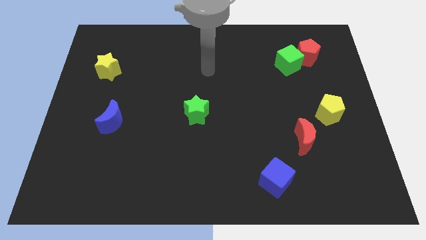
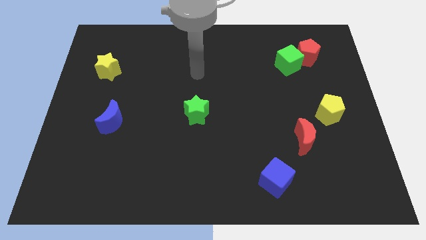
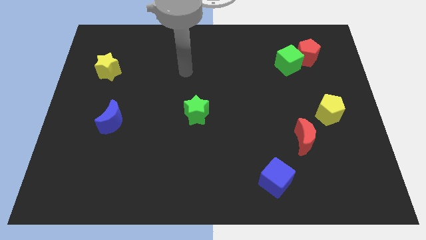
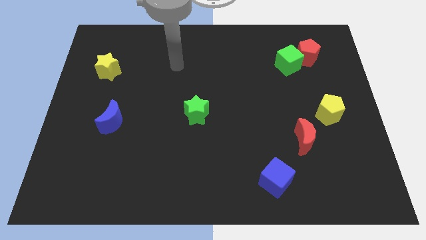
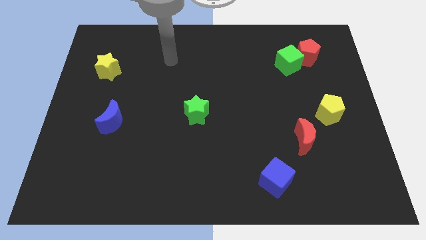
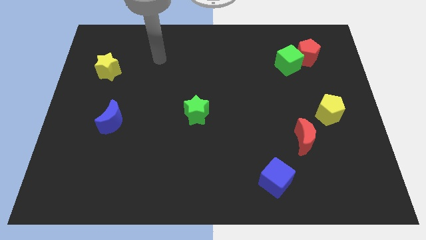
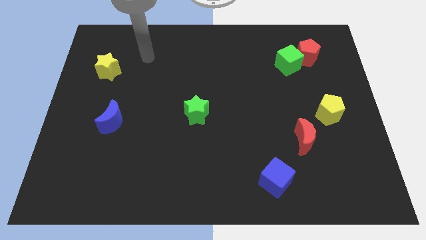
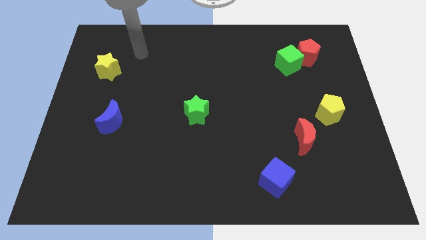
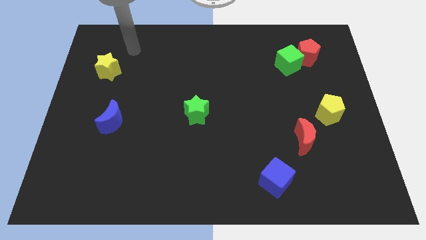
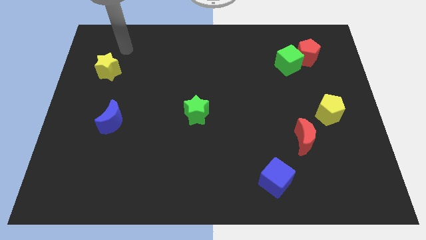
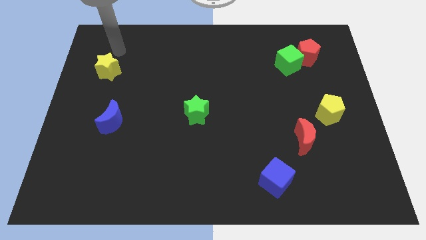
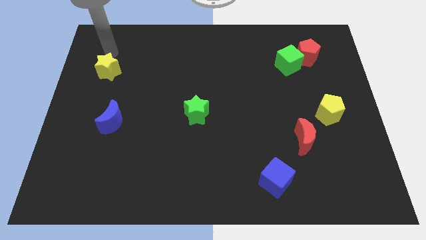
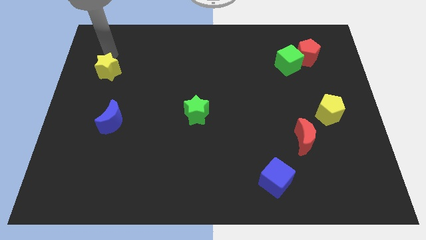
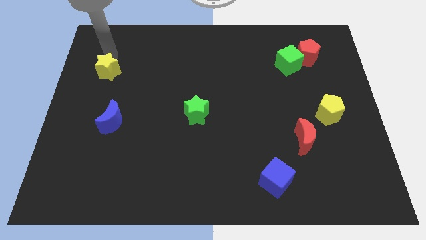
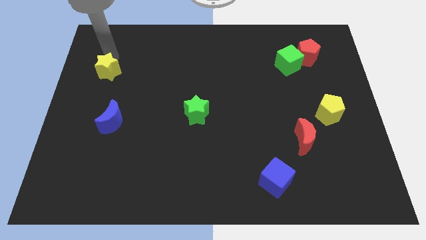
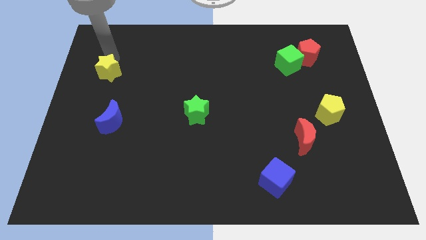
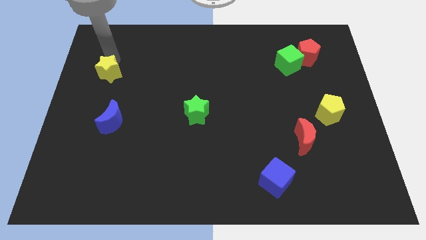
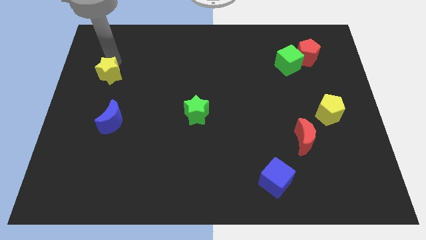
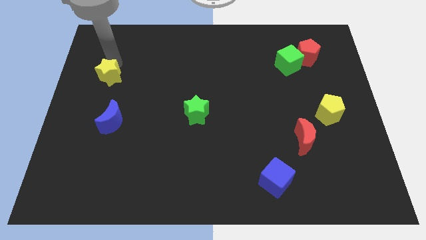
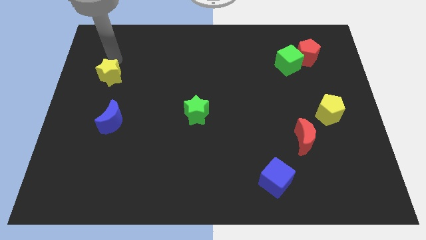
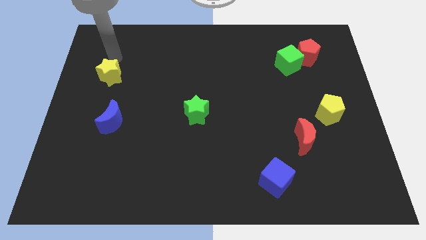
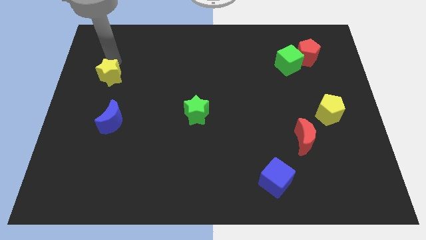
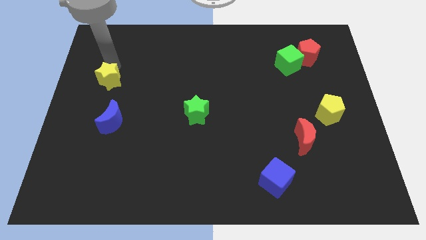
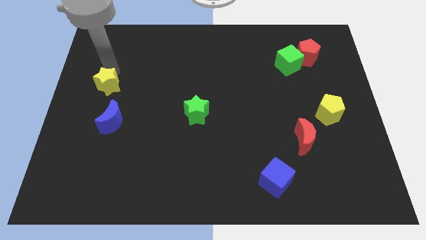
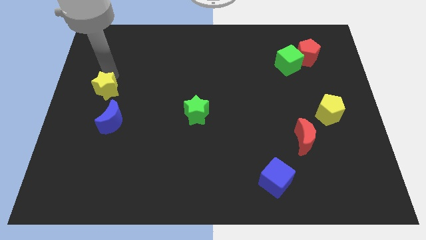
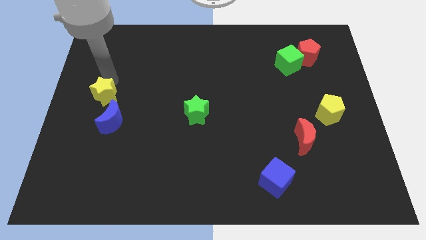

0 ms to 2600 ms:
move the yellow star downwards somewhat

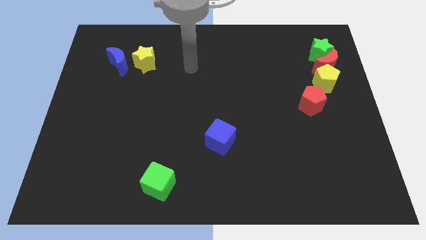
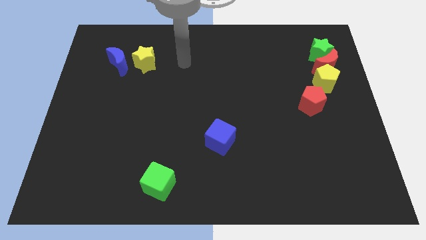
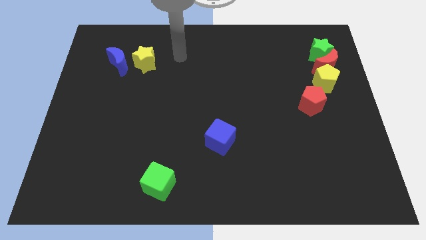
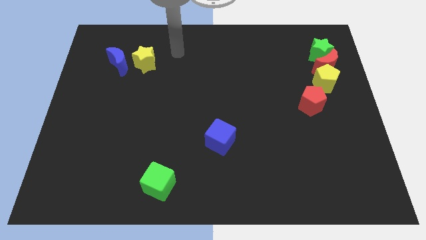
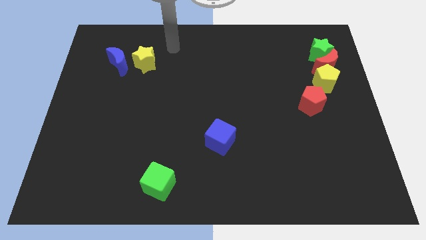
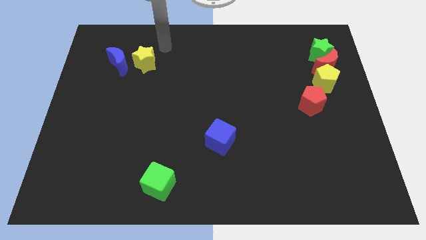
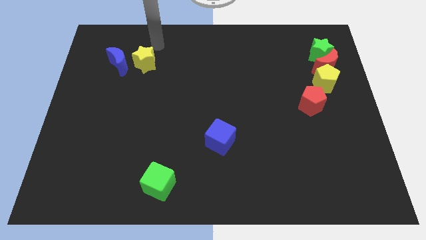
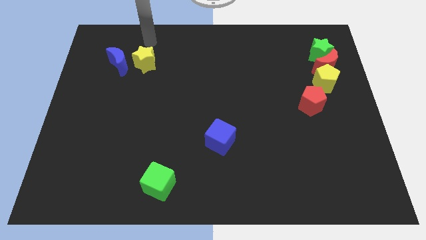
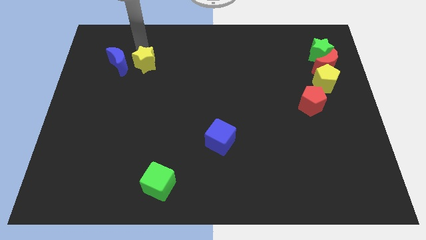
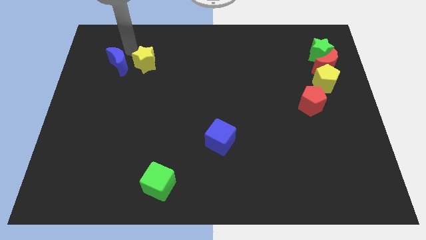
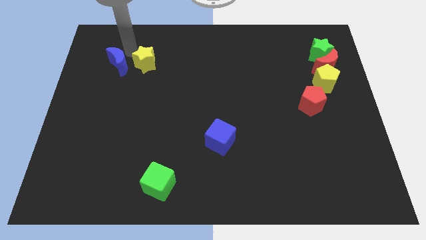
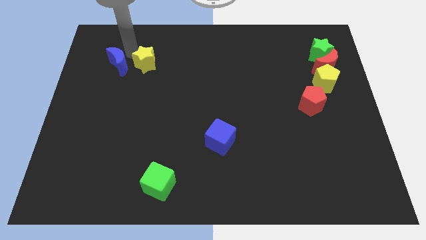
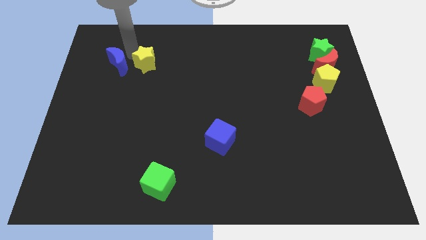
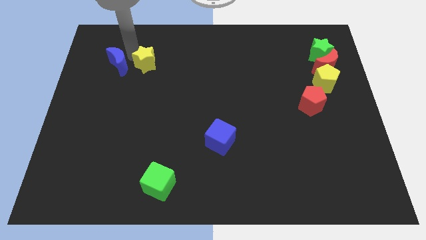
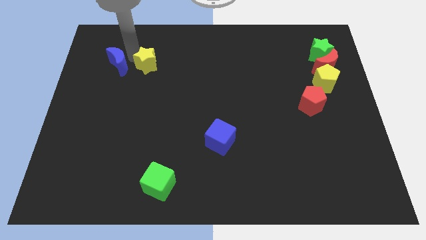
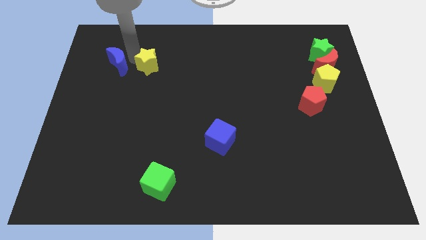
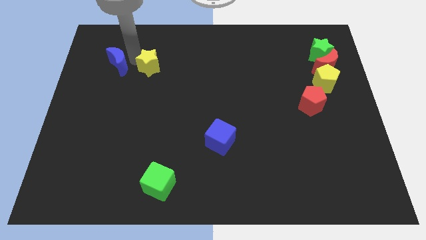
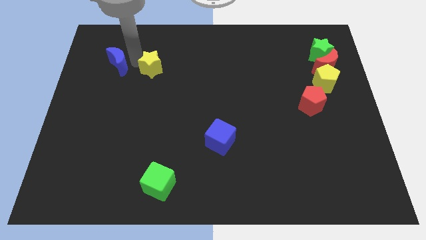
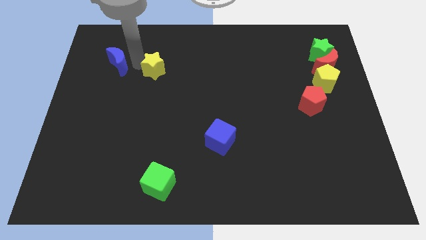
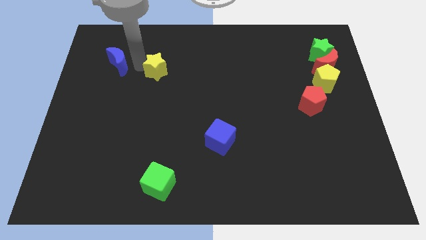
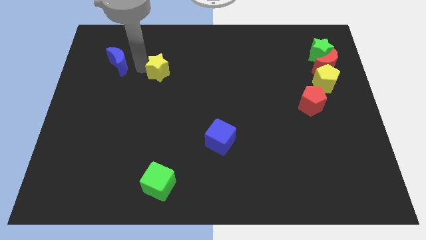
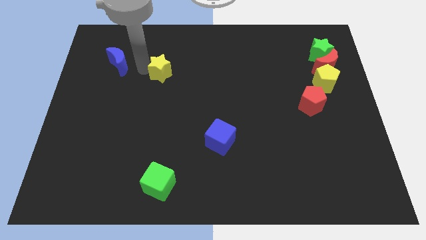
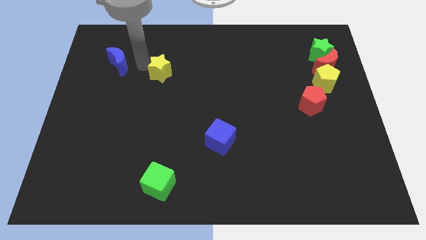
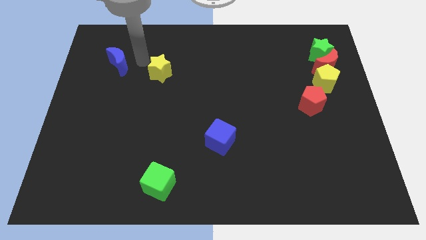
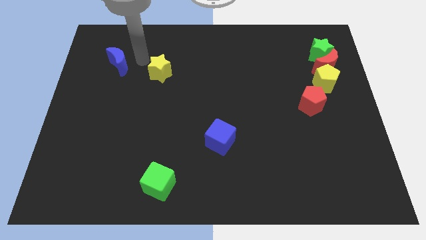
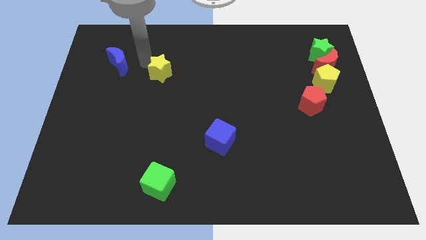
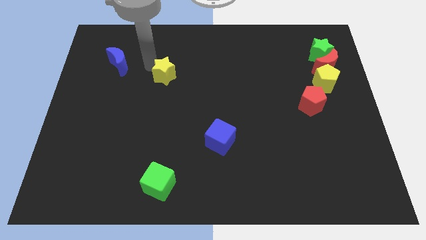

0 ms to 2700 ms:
push the yellow star down and right a bit

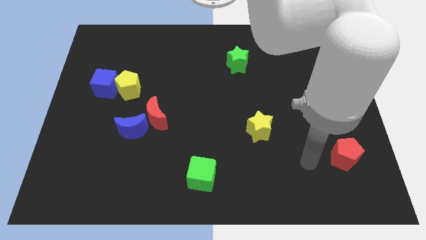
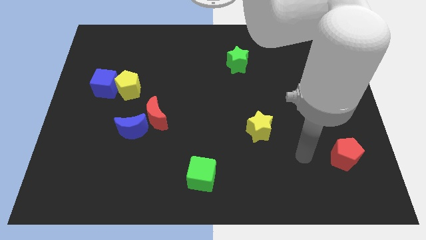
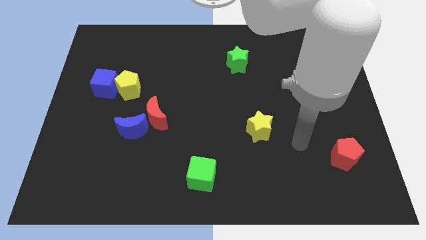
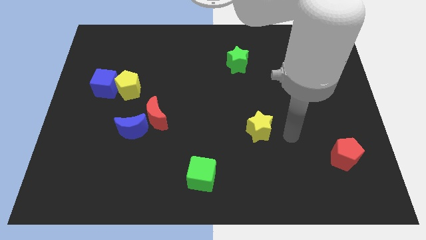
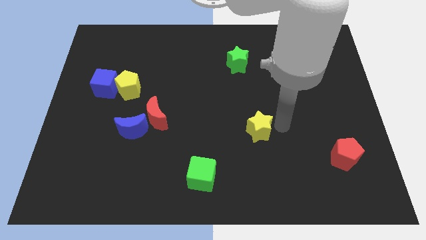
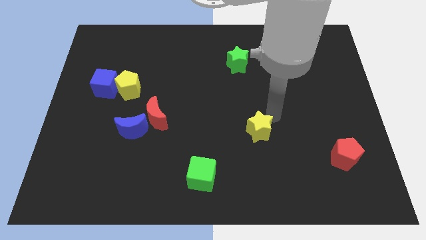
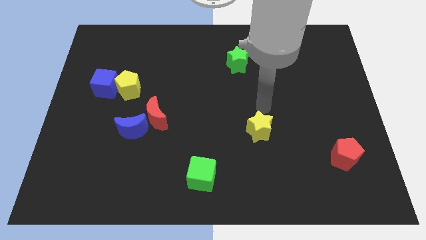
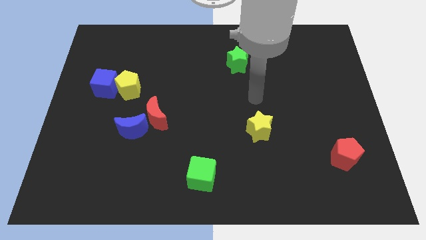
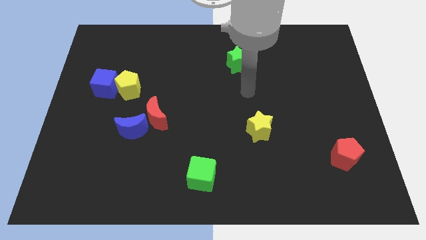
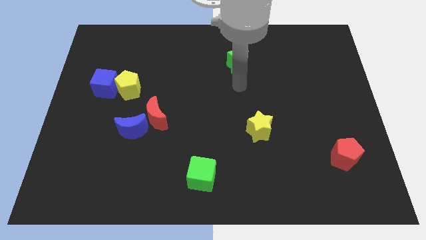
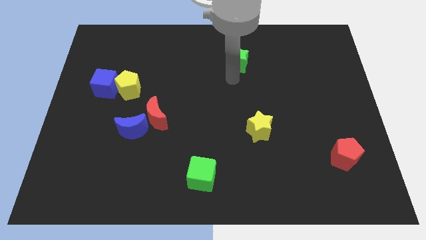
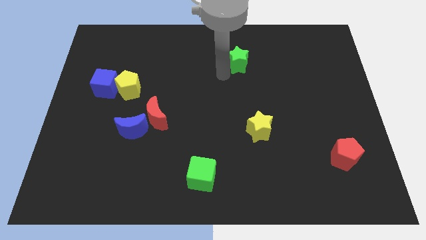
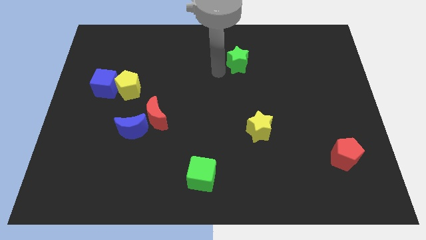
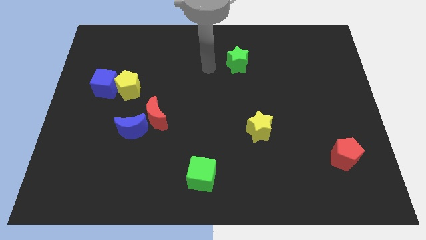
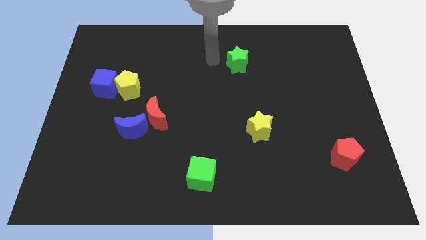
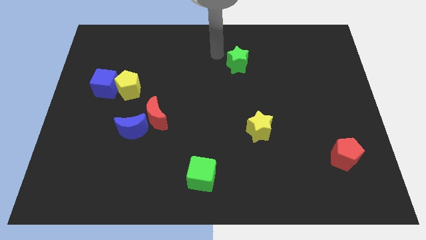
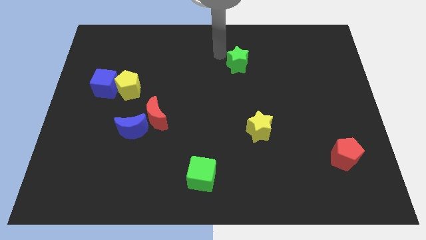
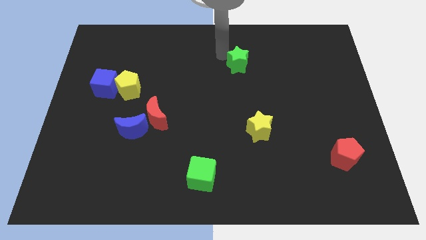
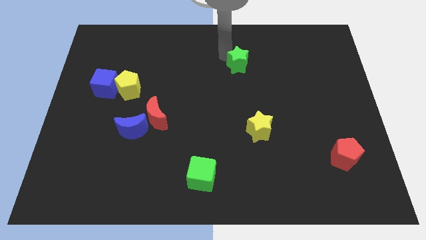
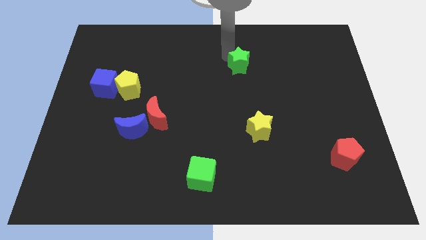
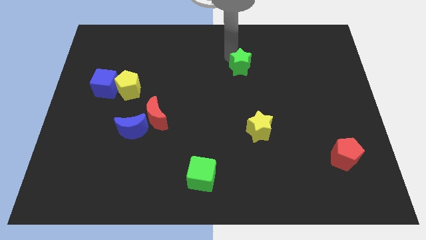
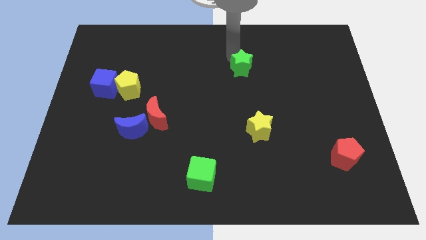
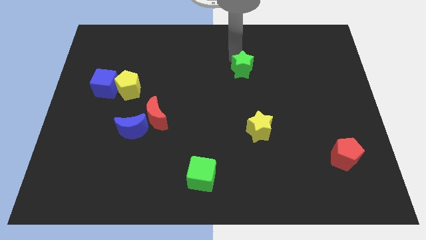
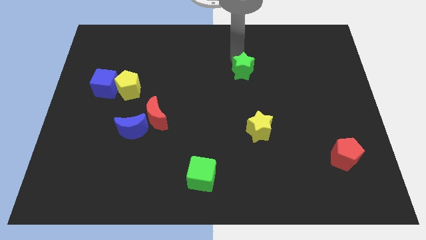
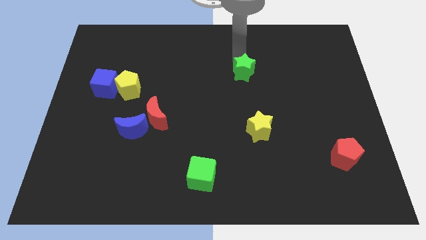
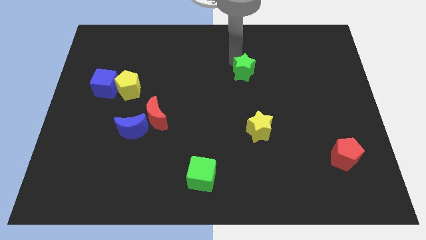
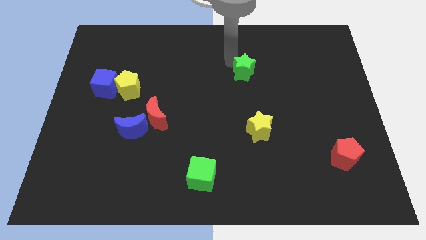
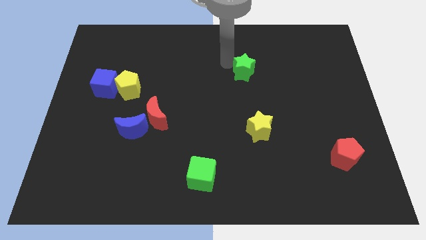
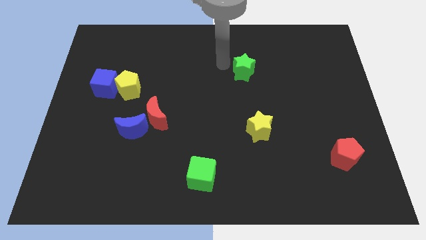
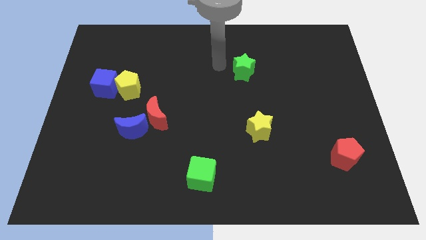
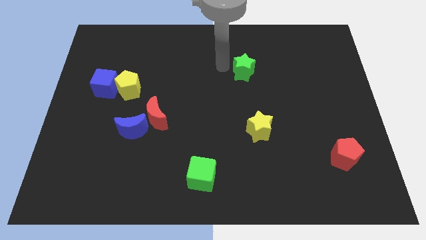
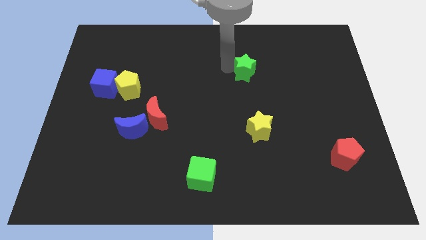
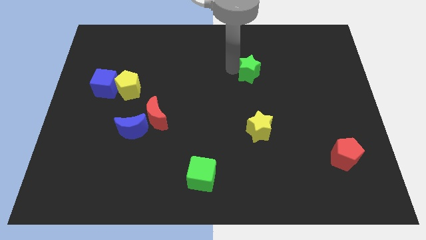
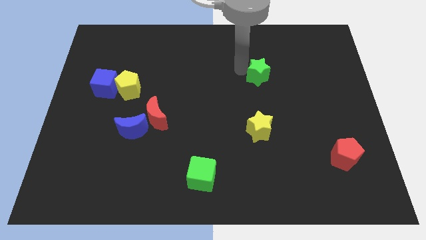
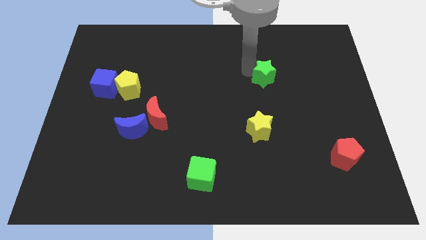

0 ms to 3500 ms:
slide the green star diagonally downwards and right slightly
